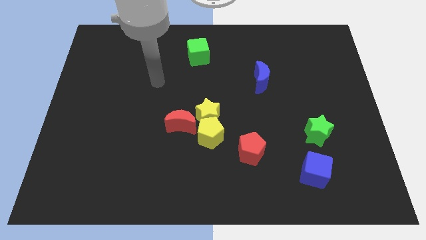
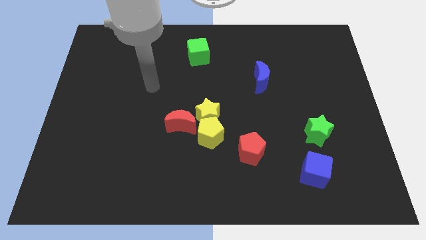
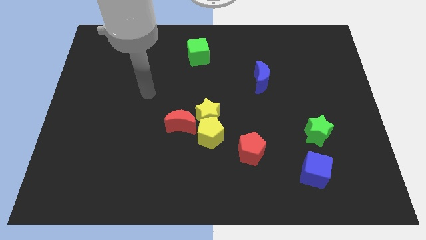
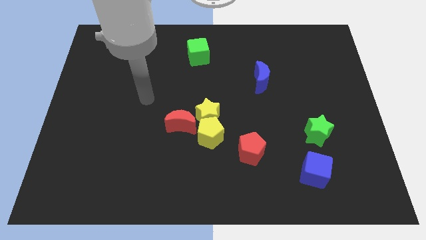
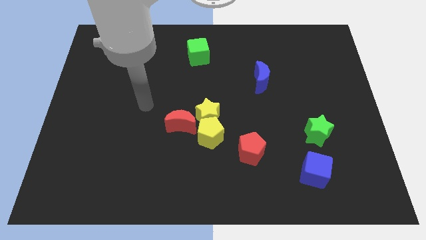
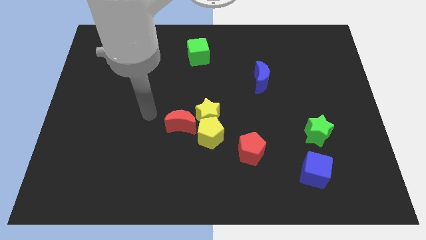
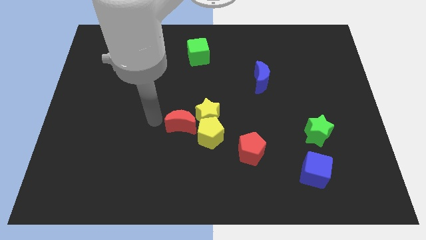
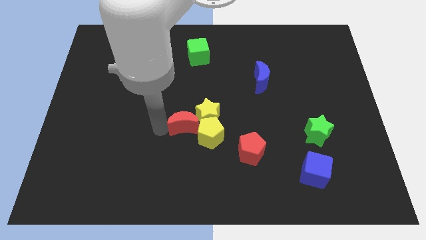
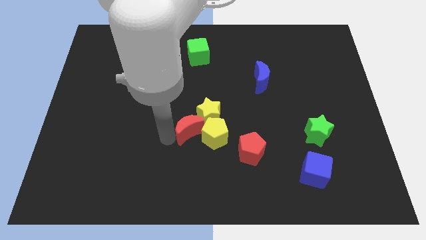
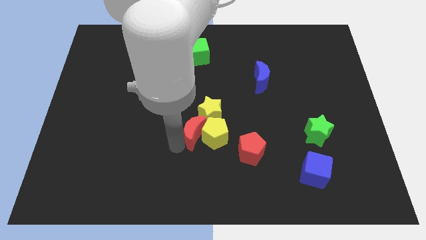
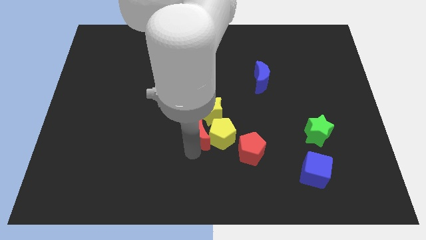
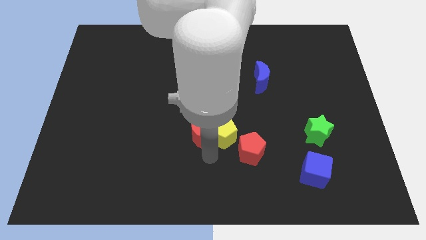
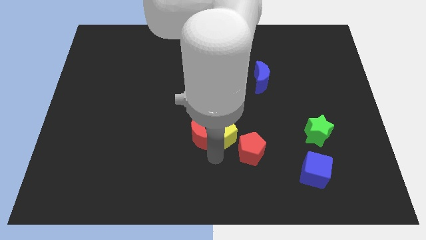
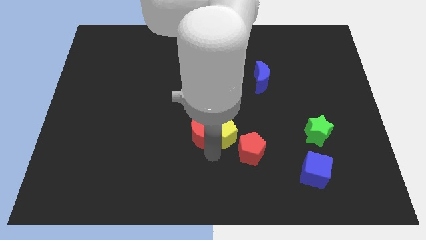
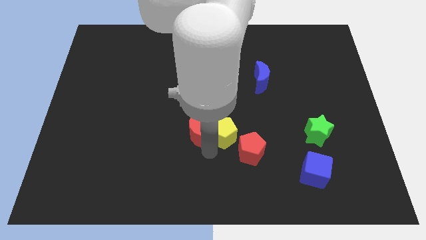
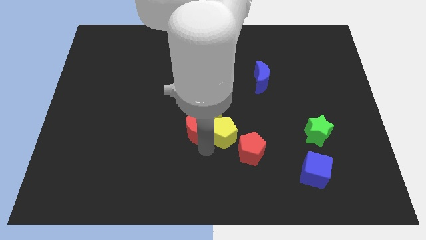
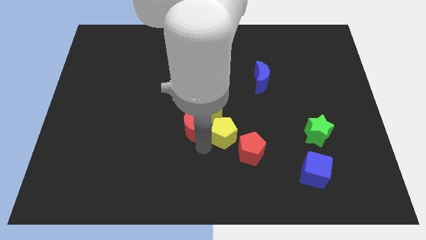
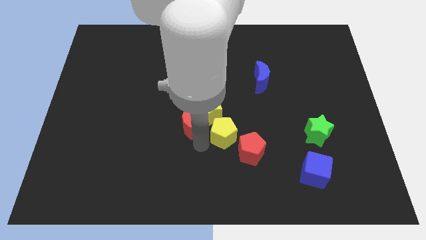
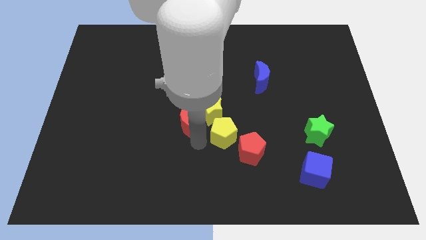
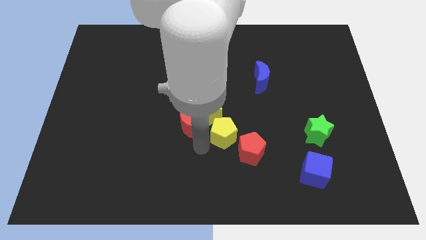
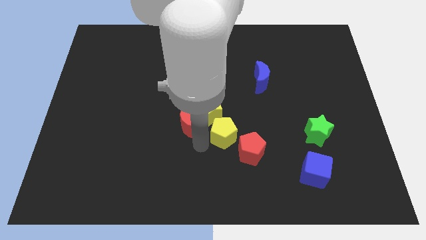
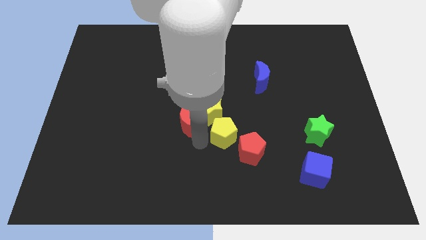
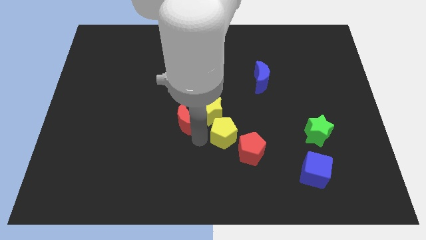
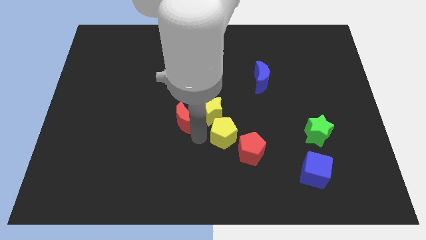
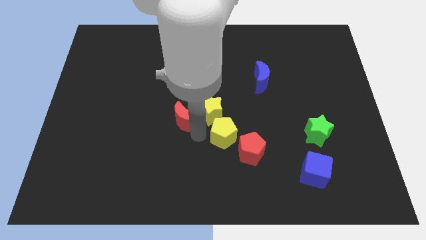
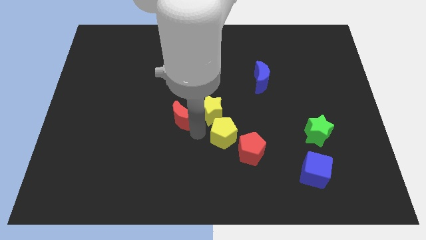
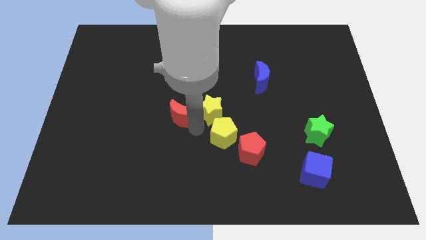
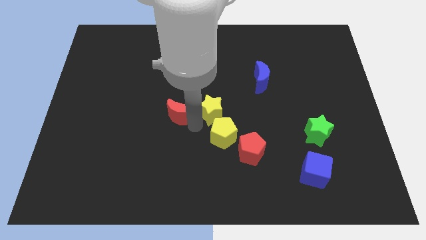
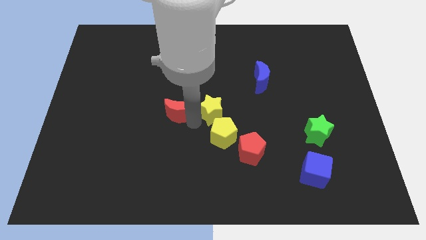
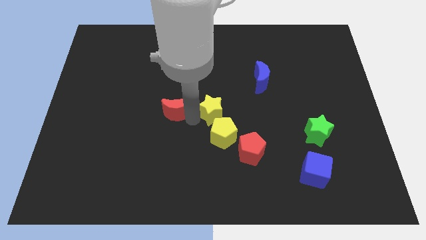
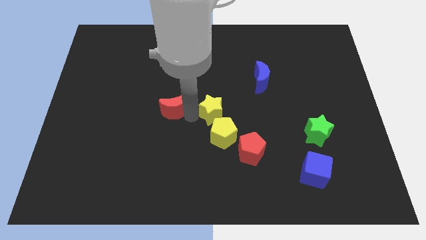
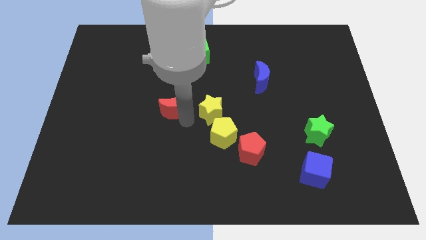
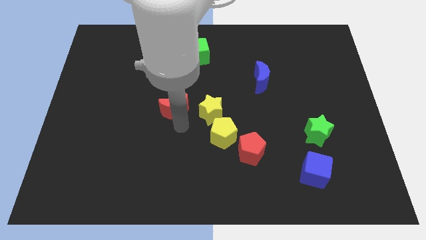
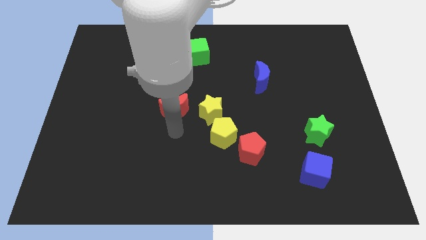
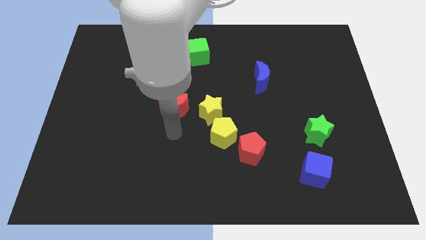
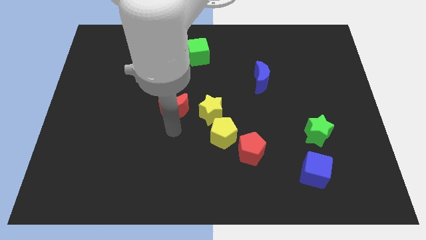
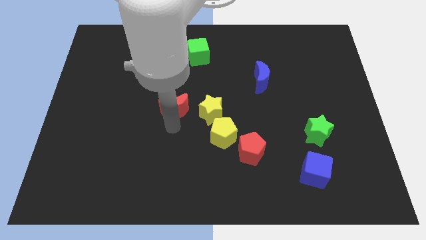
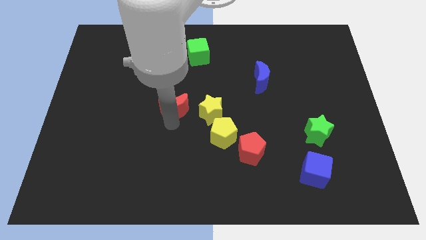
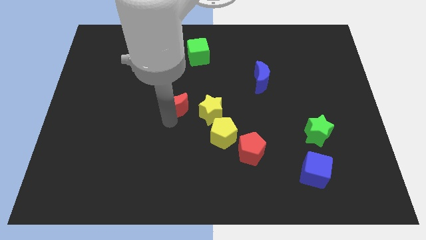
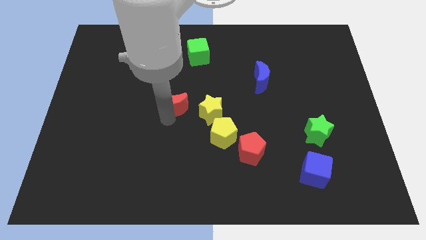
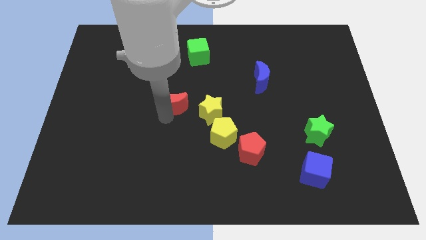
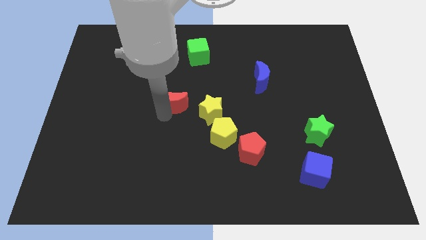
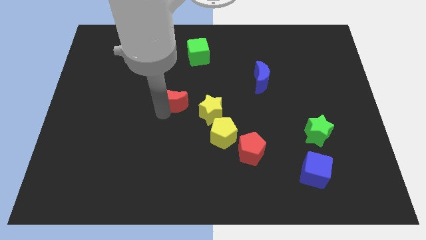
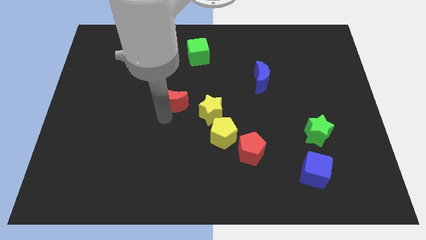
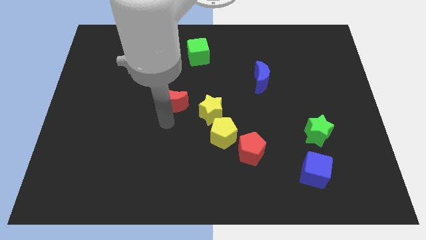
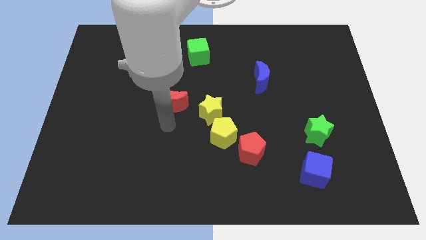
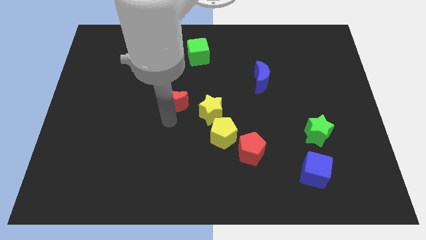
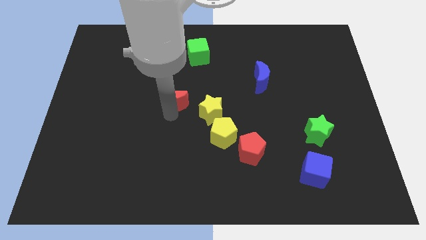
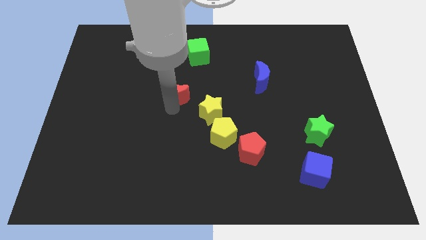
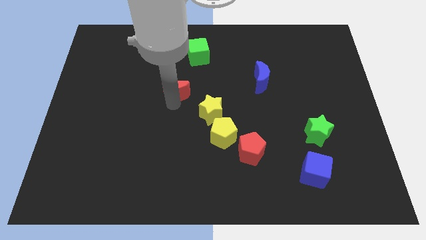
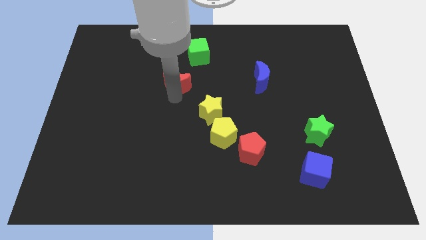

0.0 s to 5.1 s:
push the red moon to the bottom left side of the green cube

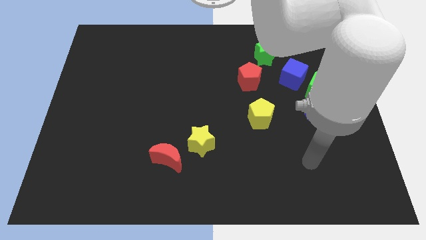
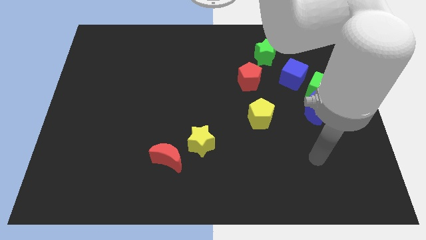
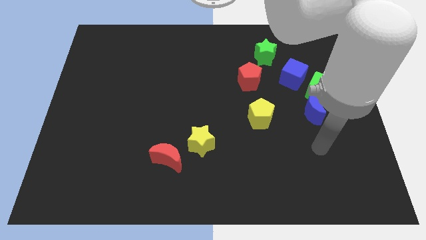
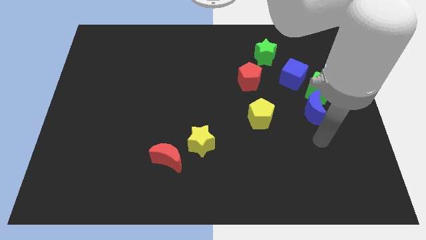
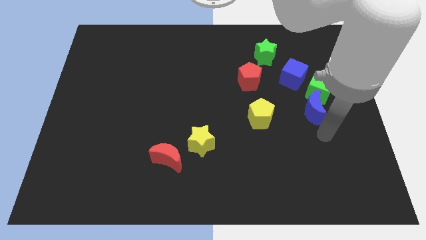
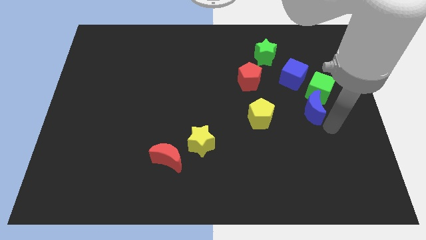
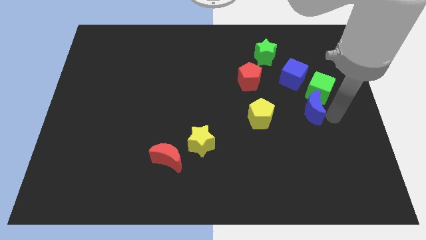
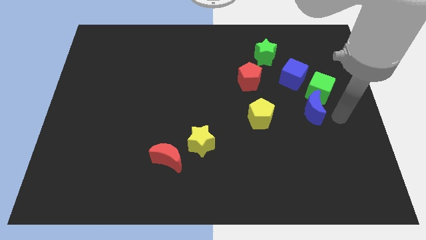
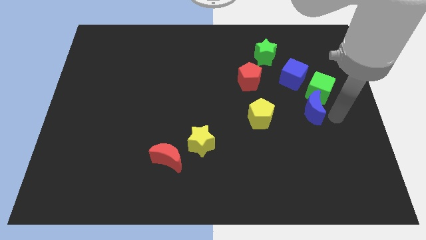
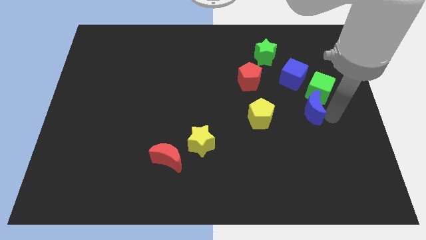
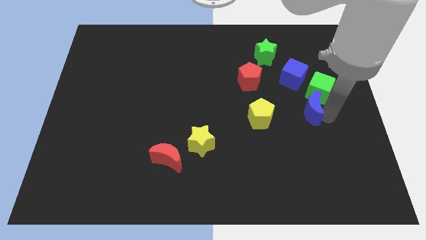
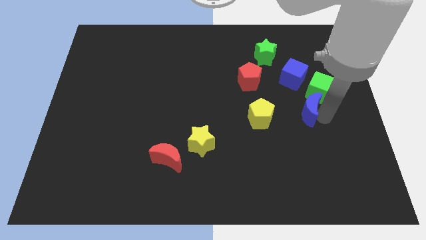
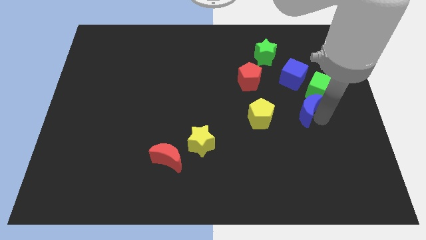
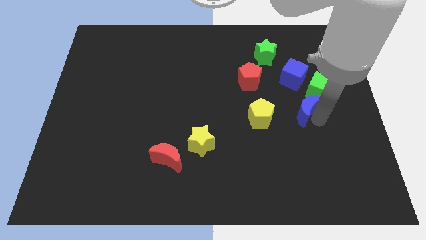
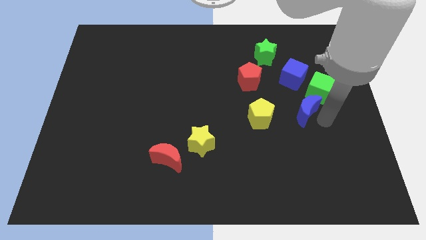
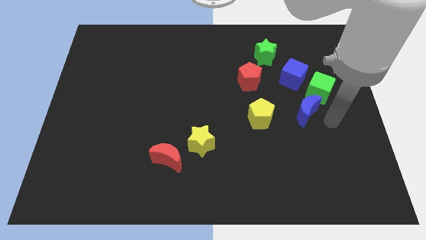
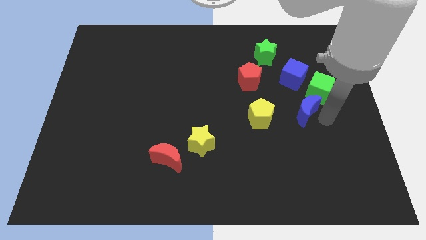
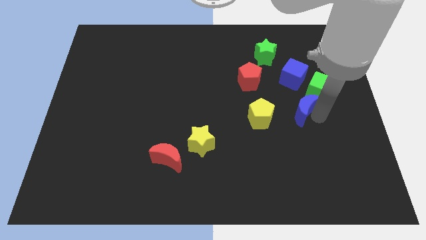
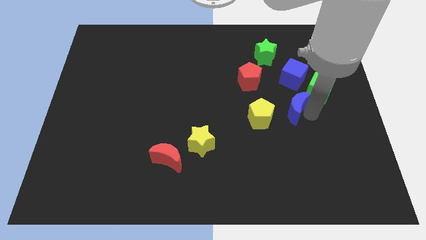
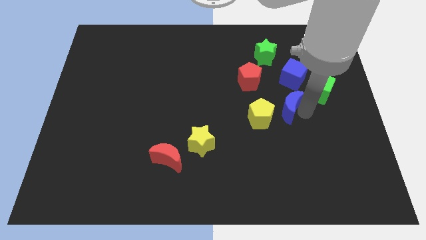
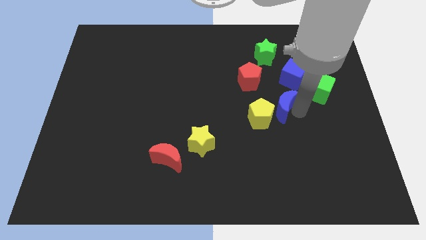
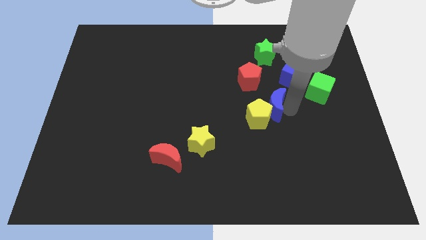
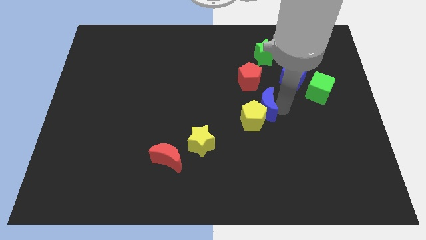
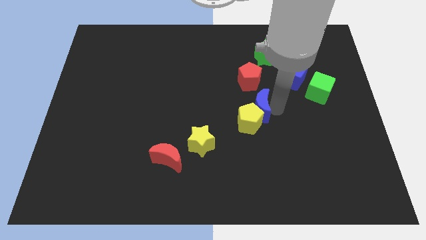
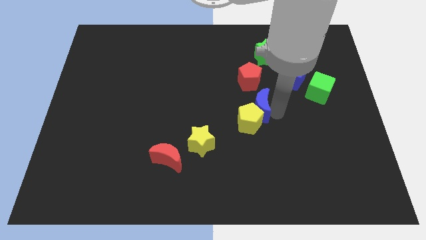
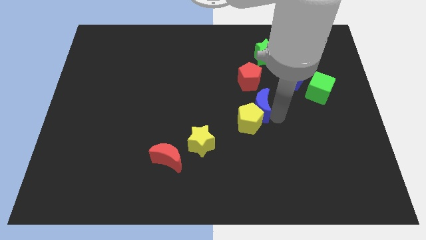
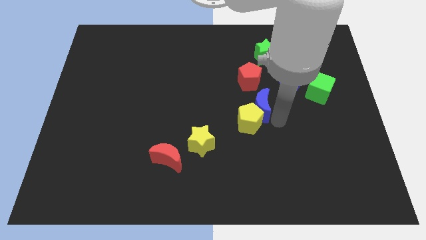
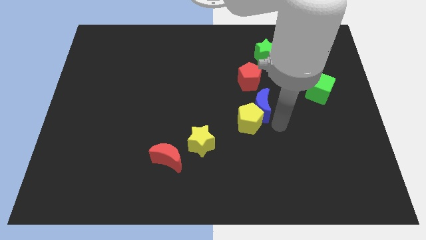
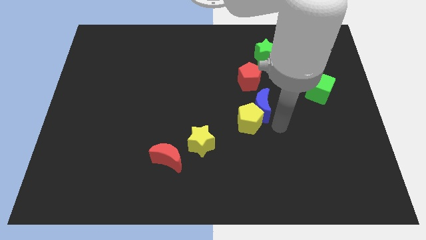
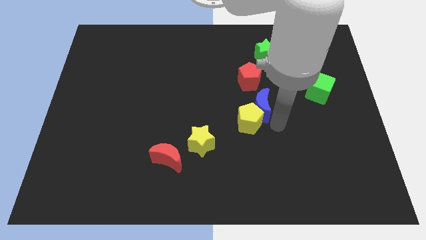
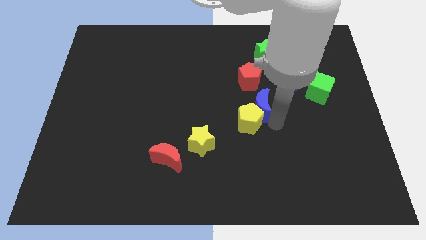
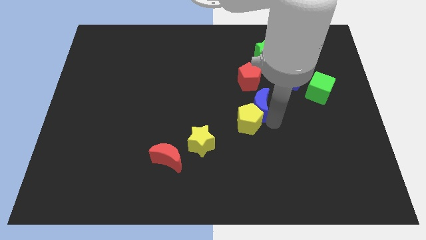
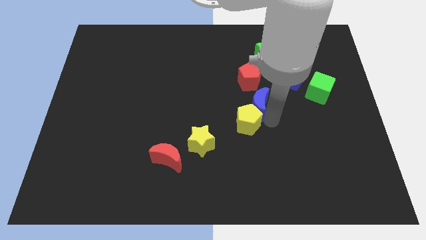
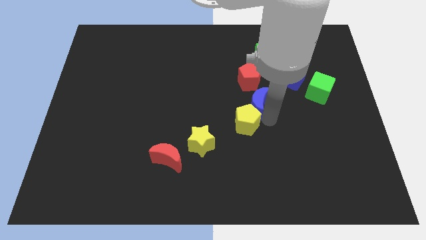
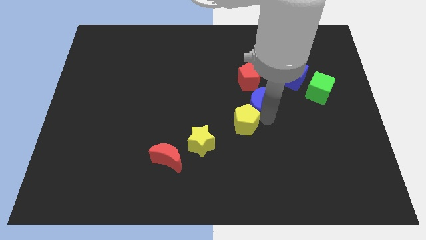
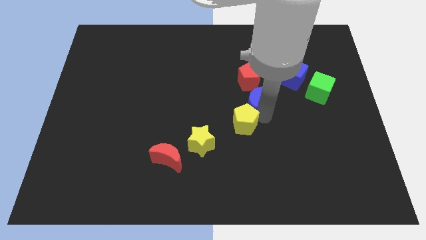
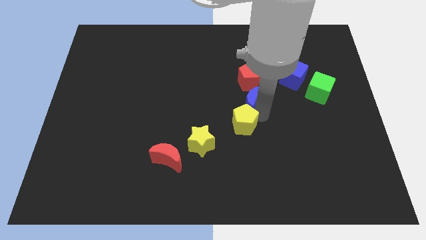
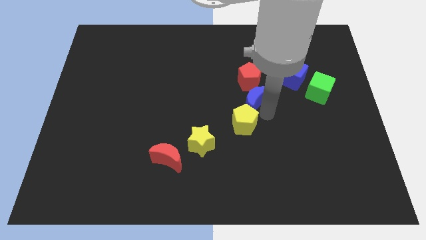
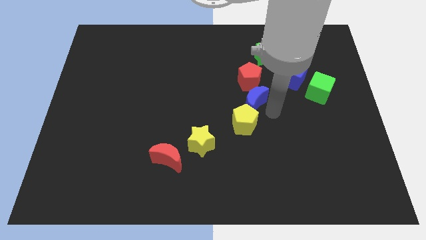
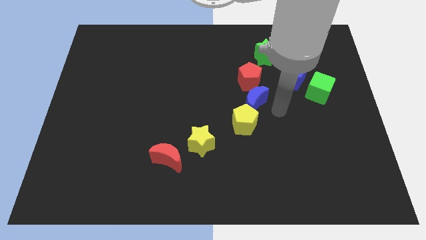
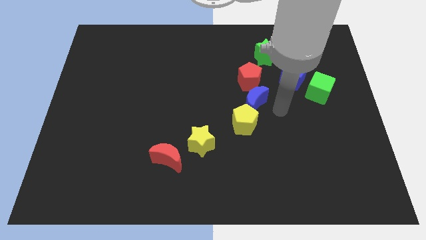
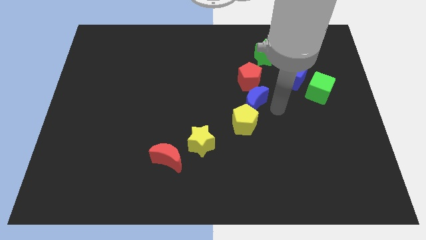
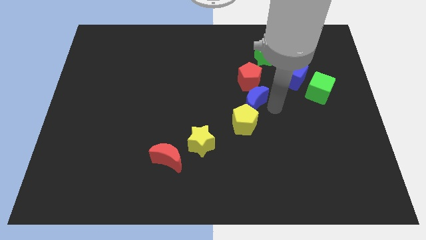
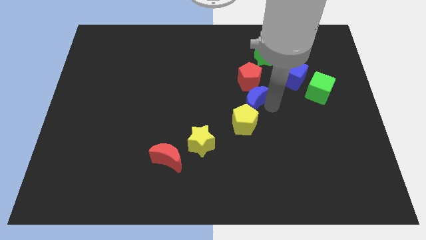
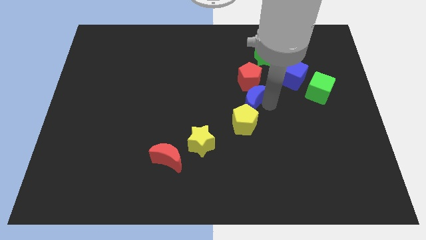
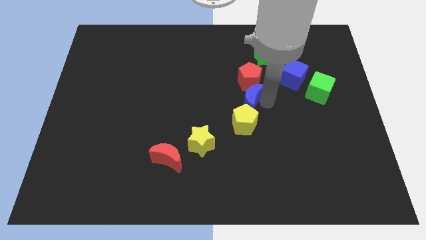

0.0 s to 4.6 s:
move the blue moon to the bottom left side of the red pentagon
